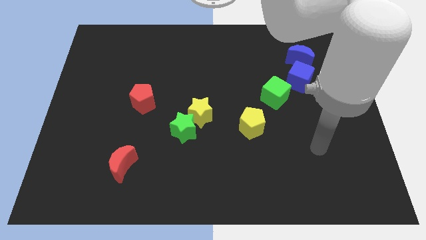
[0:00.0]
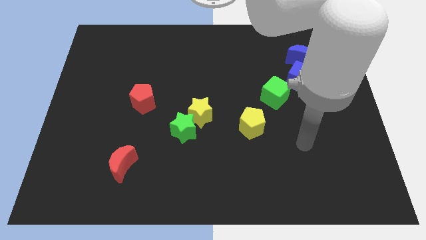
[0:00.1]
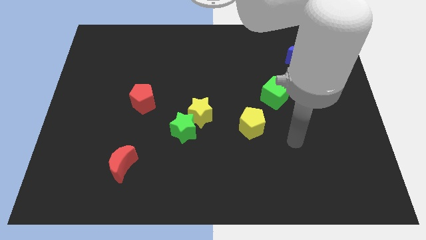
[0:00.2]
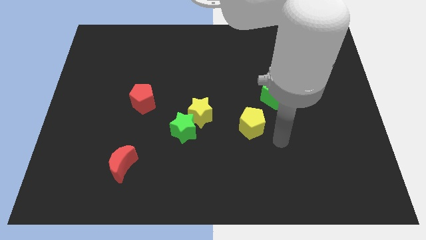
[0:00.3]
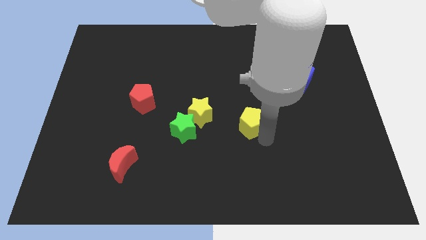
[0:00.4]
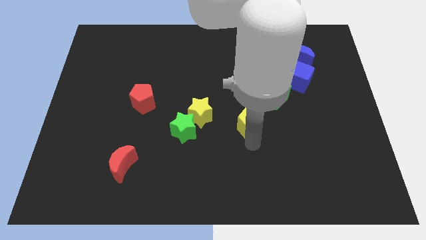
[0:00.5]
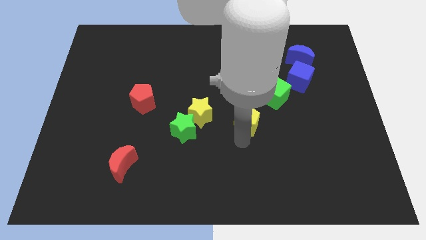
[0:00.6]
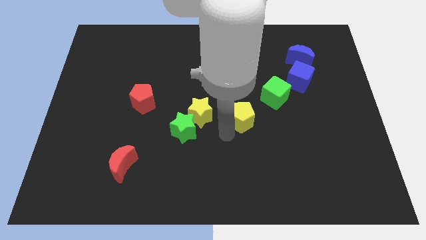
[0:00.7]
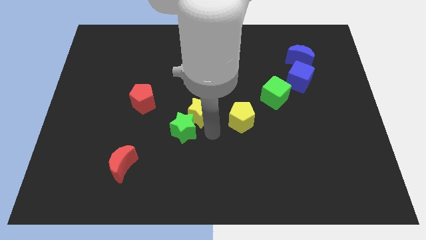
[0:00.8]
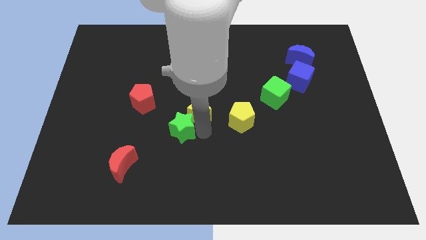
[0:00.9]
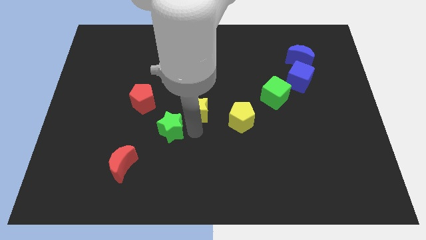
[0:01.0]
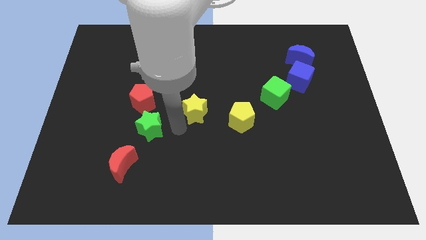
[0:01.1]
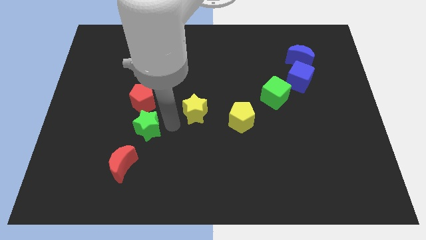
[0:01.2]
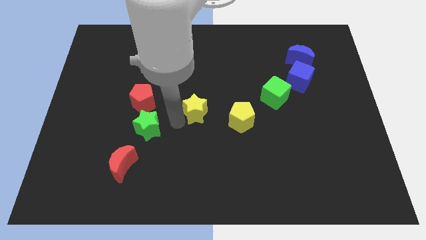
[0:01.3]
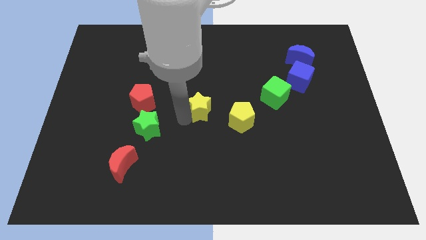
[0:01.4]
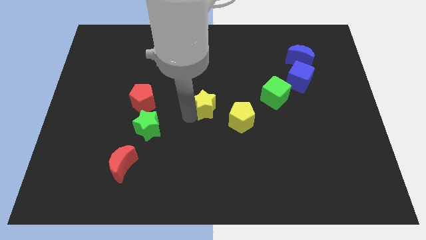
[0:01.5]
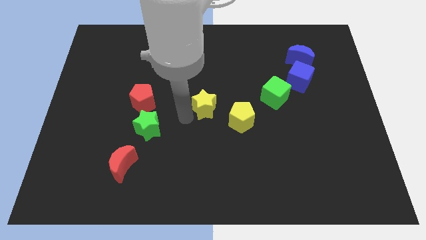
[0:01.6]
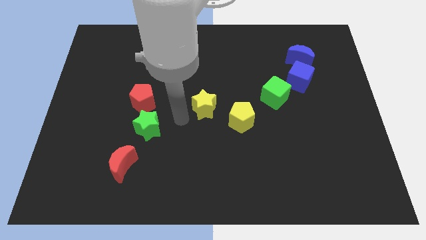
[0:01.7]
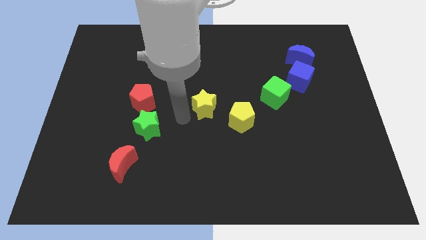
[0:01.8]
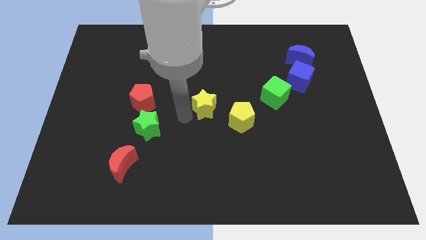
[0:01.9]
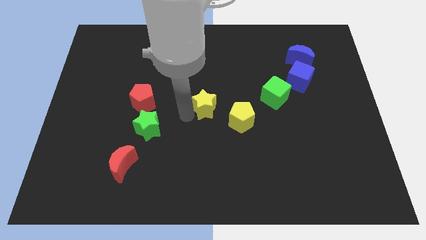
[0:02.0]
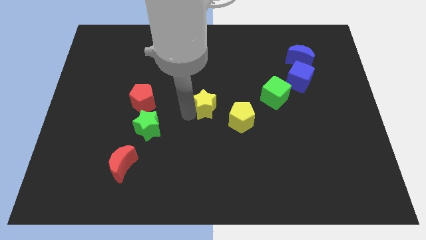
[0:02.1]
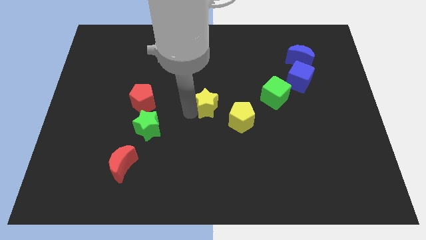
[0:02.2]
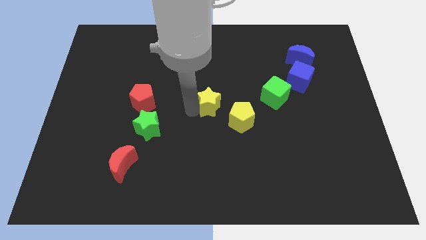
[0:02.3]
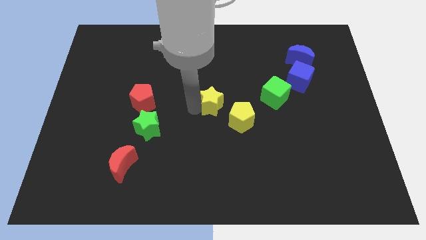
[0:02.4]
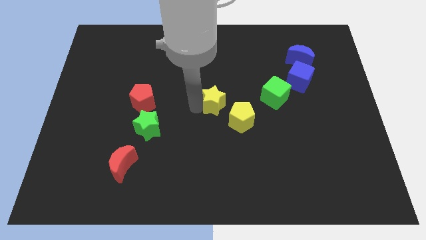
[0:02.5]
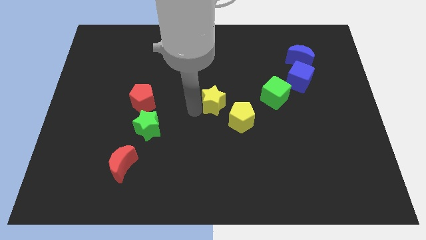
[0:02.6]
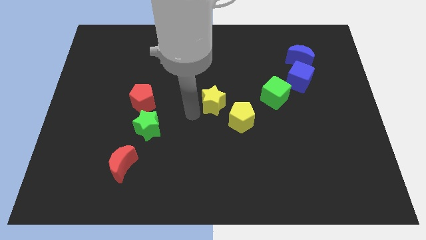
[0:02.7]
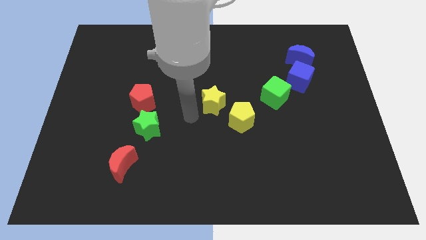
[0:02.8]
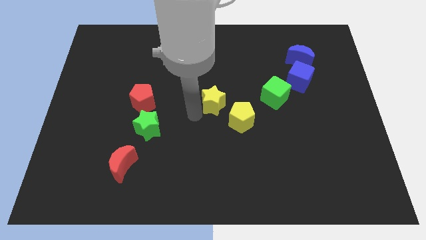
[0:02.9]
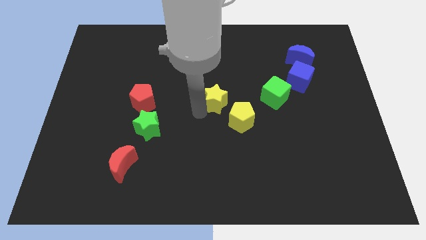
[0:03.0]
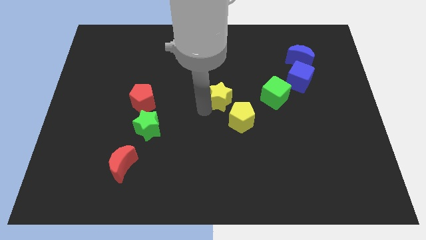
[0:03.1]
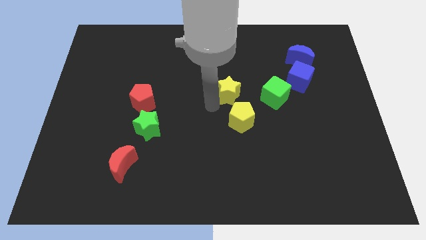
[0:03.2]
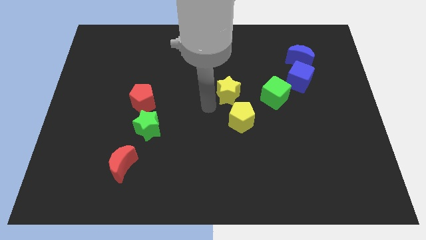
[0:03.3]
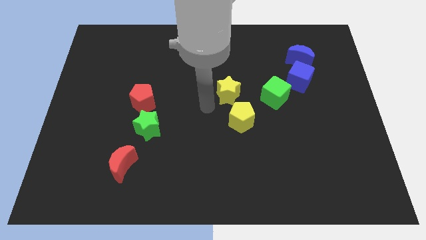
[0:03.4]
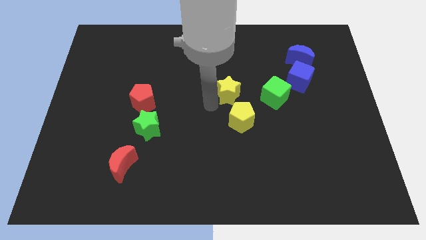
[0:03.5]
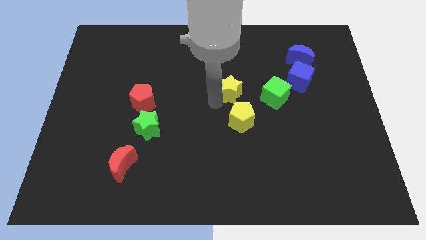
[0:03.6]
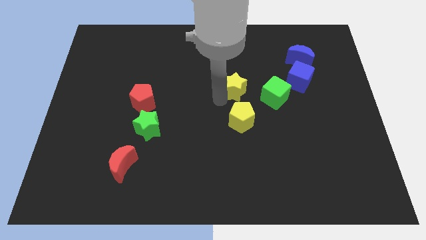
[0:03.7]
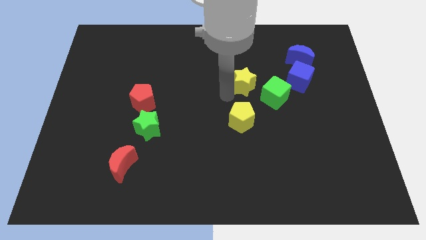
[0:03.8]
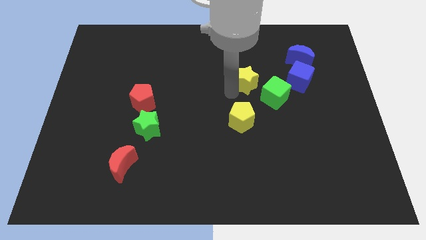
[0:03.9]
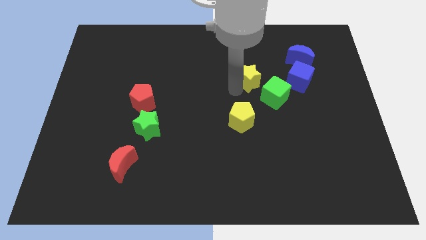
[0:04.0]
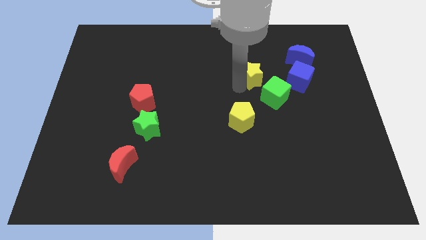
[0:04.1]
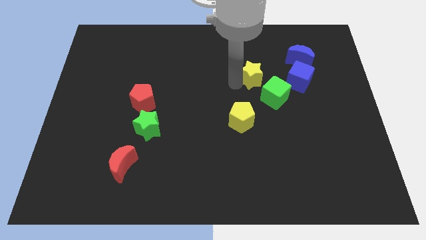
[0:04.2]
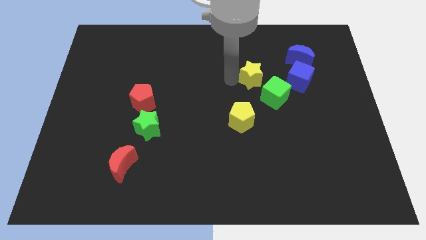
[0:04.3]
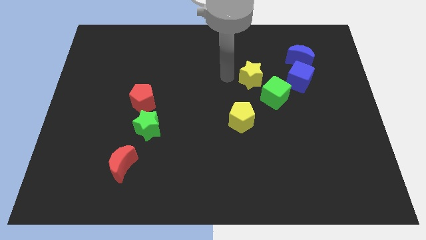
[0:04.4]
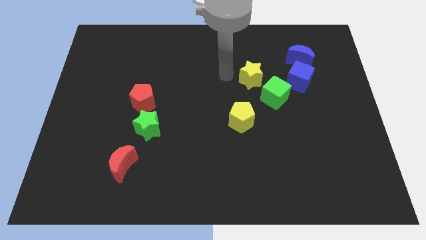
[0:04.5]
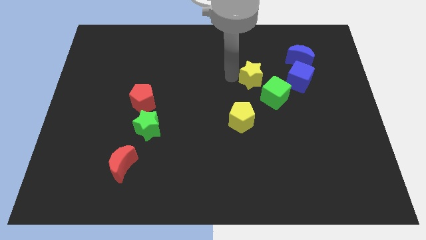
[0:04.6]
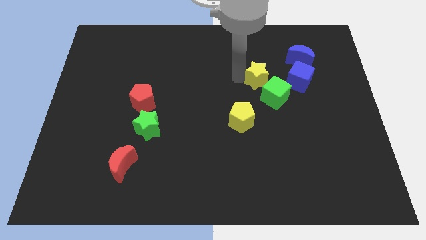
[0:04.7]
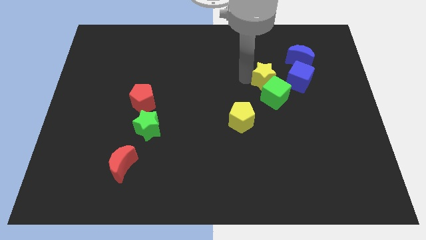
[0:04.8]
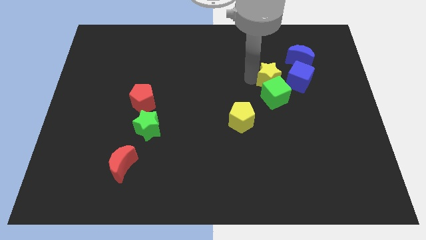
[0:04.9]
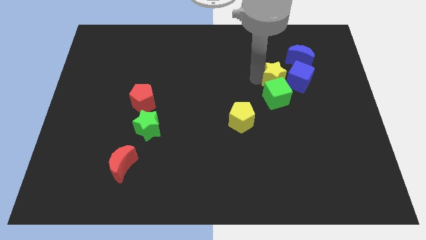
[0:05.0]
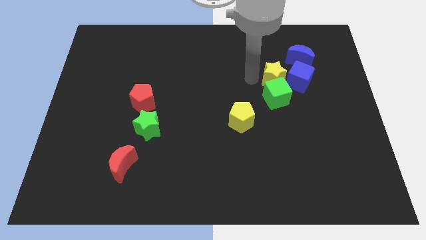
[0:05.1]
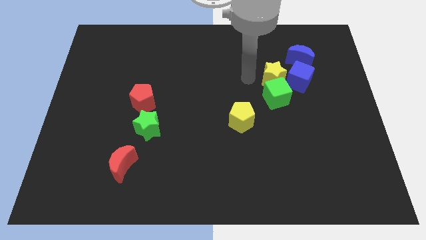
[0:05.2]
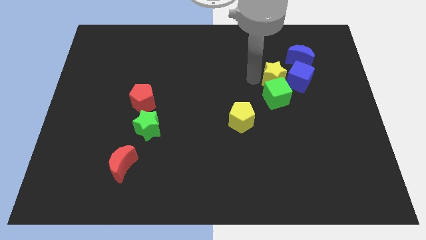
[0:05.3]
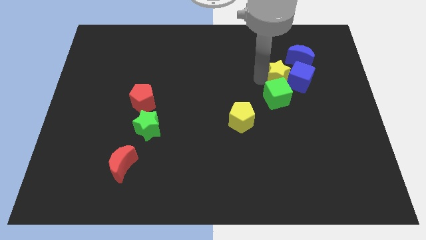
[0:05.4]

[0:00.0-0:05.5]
push the yellow star close to the blue cube
